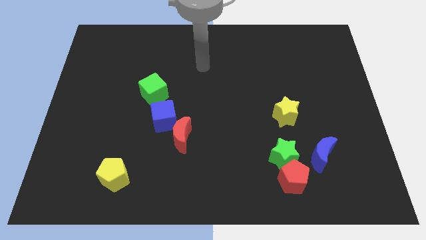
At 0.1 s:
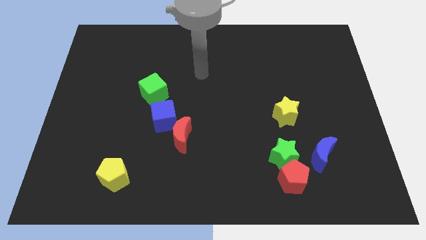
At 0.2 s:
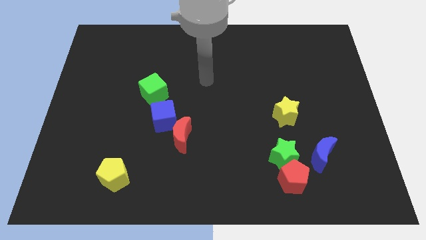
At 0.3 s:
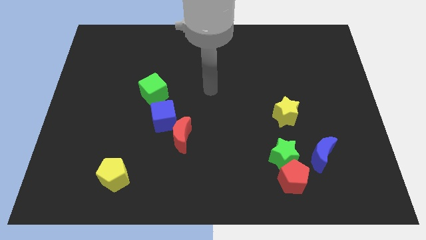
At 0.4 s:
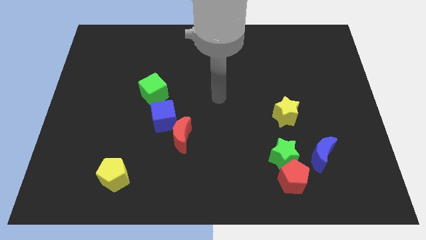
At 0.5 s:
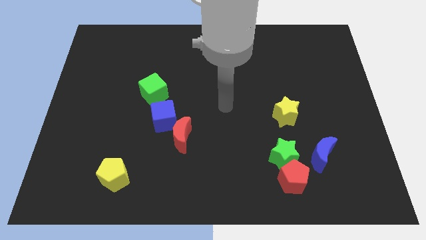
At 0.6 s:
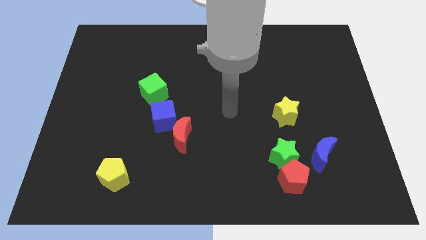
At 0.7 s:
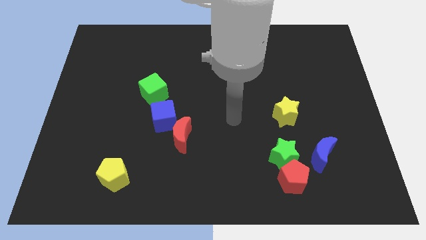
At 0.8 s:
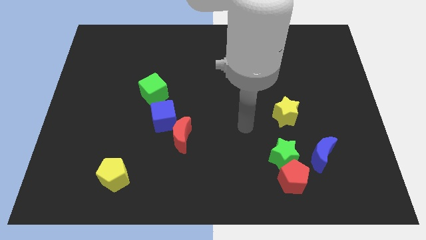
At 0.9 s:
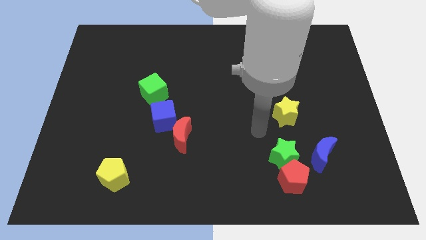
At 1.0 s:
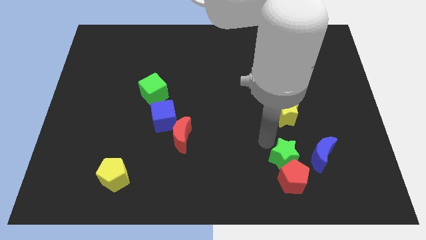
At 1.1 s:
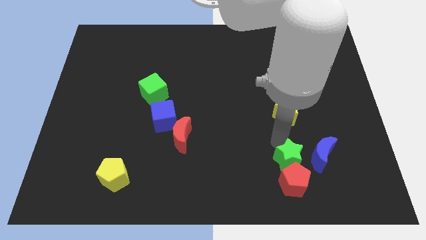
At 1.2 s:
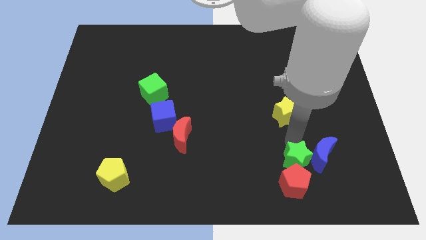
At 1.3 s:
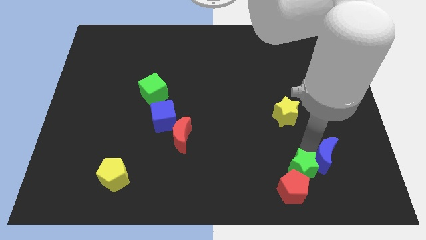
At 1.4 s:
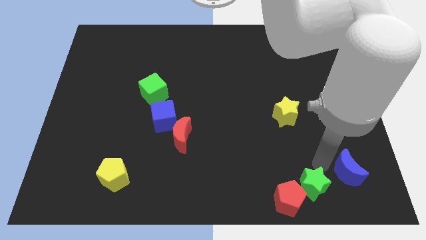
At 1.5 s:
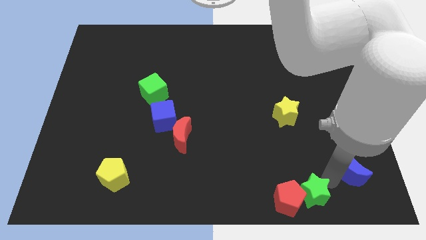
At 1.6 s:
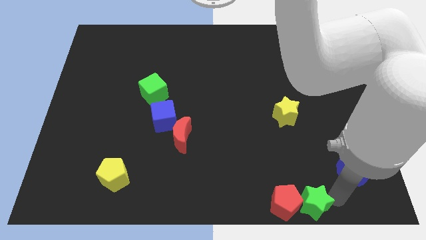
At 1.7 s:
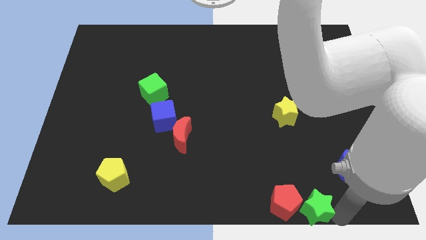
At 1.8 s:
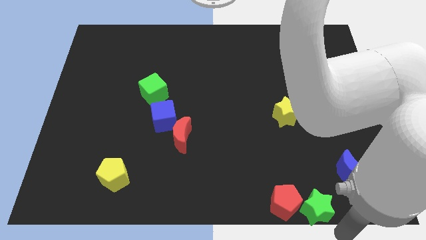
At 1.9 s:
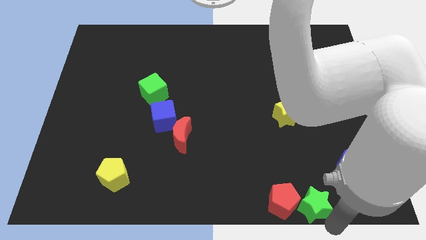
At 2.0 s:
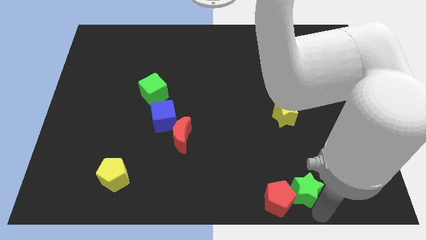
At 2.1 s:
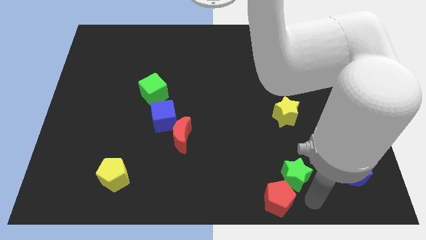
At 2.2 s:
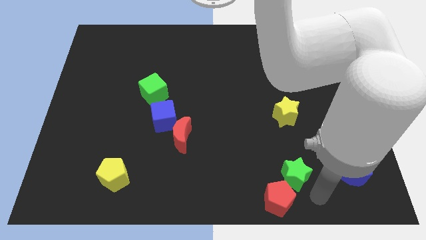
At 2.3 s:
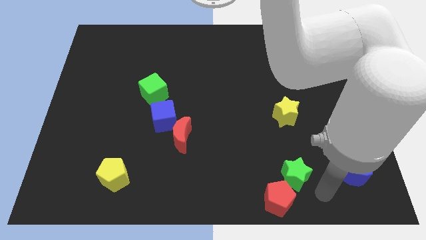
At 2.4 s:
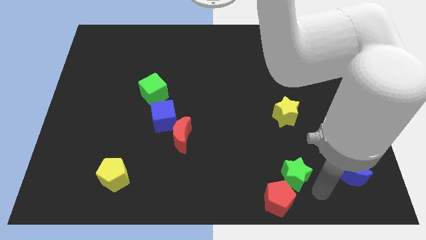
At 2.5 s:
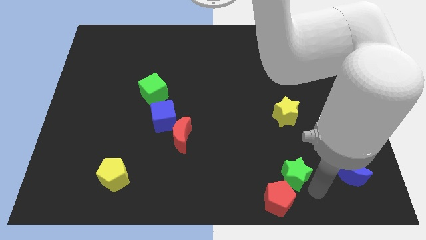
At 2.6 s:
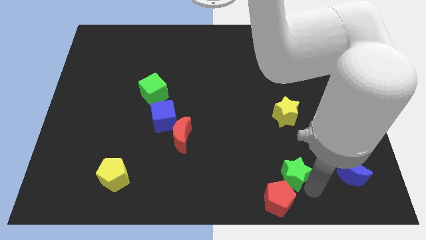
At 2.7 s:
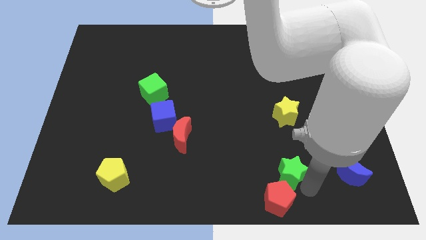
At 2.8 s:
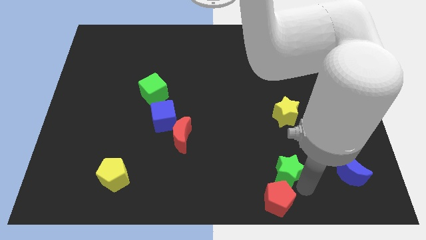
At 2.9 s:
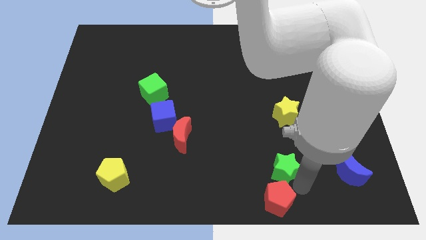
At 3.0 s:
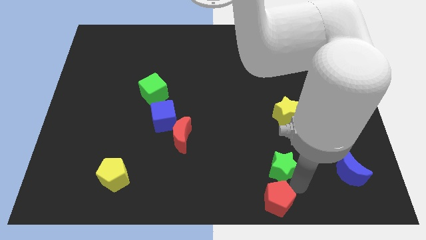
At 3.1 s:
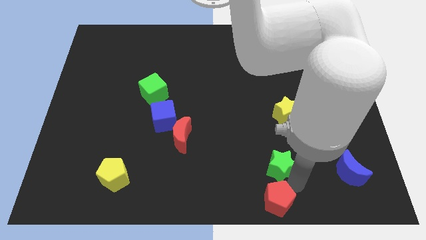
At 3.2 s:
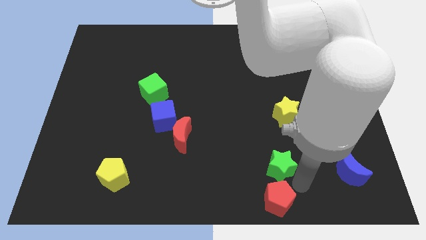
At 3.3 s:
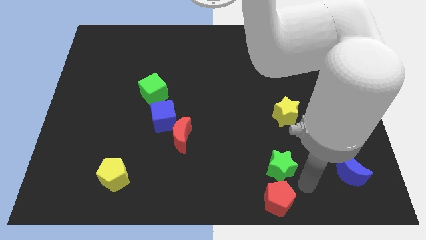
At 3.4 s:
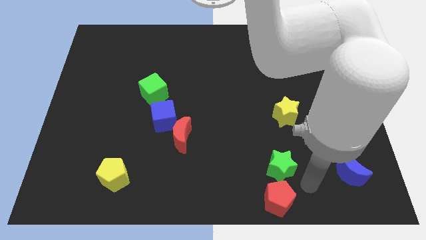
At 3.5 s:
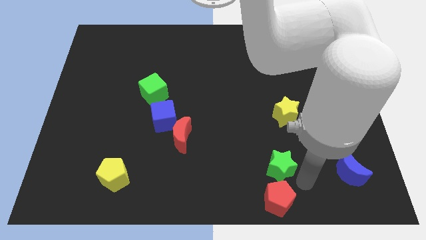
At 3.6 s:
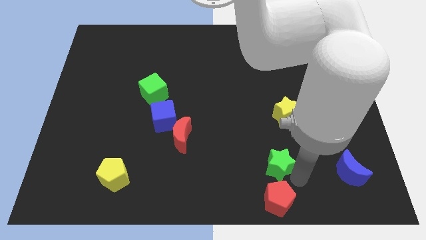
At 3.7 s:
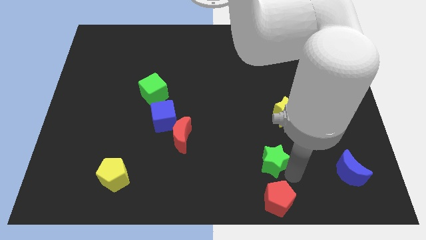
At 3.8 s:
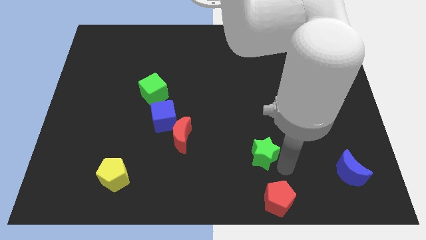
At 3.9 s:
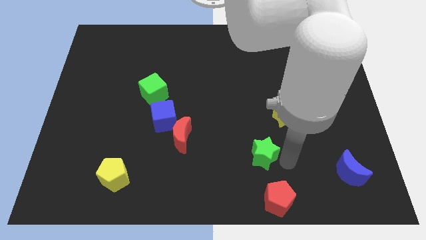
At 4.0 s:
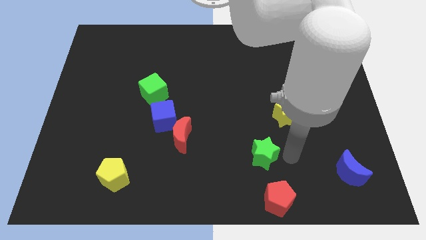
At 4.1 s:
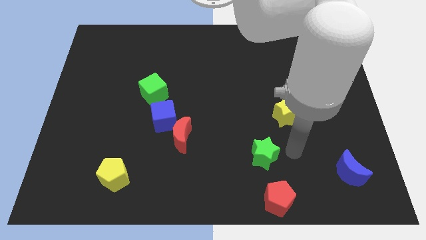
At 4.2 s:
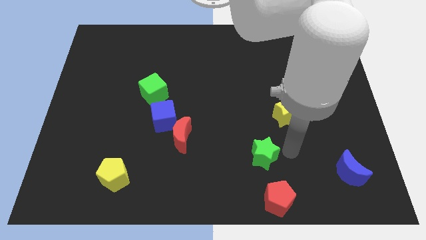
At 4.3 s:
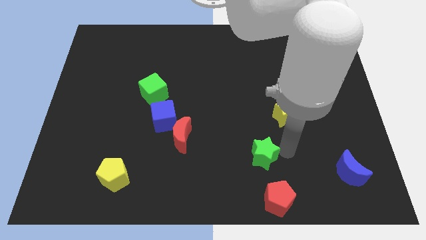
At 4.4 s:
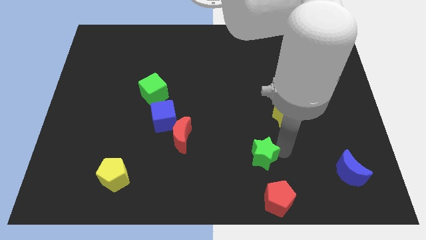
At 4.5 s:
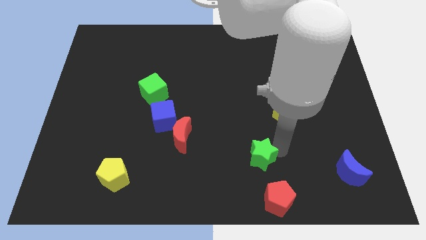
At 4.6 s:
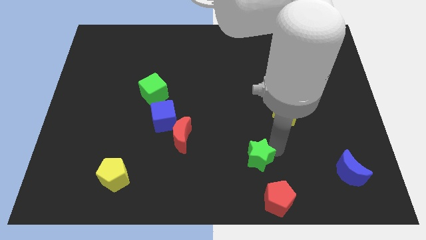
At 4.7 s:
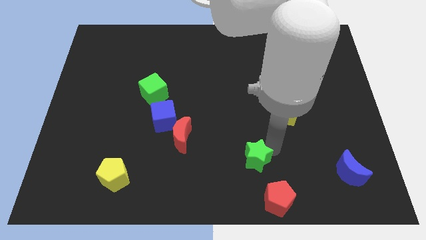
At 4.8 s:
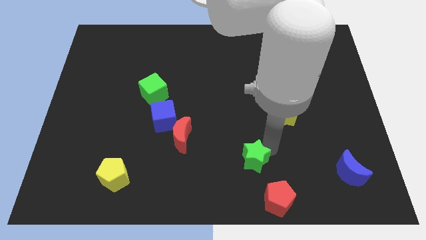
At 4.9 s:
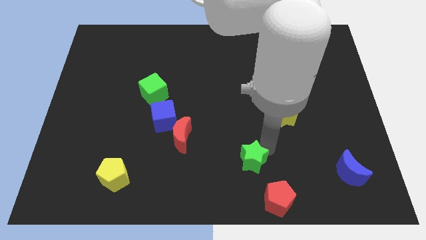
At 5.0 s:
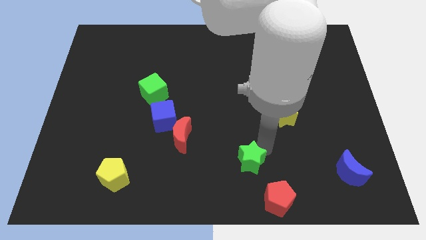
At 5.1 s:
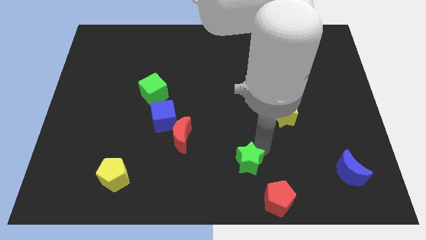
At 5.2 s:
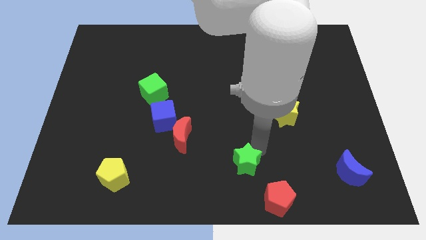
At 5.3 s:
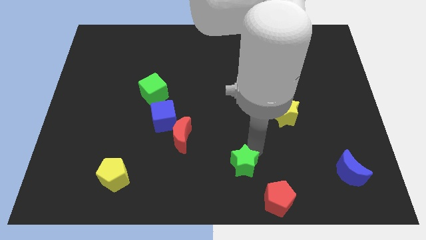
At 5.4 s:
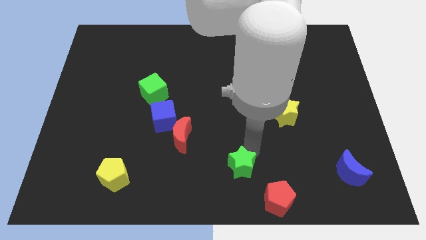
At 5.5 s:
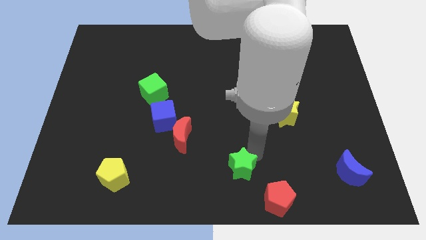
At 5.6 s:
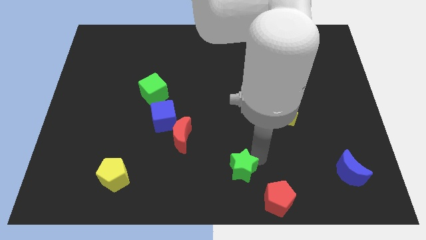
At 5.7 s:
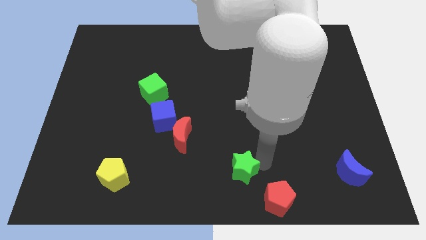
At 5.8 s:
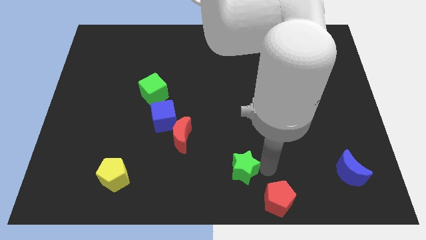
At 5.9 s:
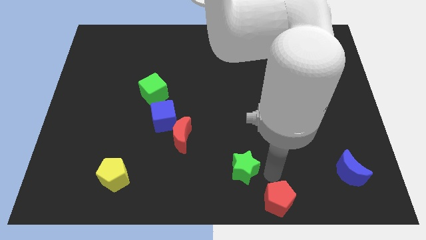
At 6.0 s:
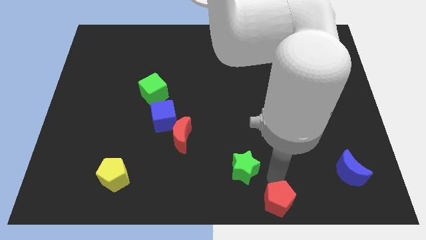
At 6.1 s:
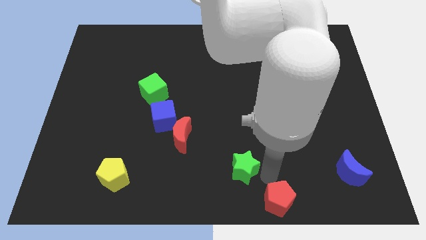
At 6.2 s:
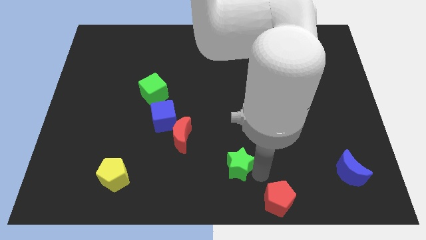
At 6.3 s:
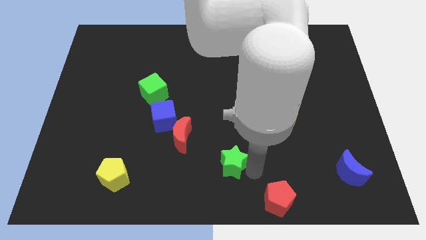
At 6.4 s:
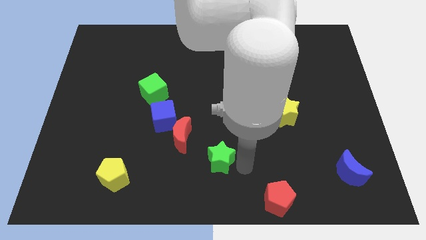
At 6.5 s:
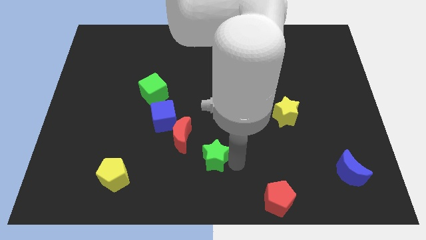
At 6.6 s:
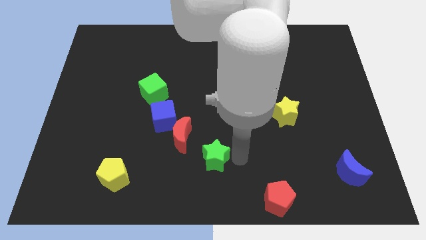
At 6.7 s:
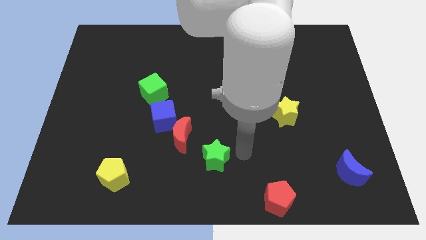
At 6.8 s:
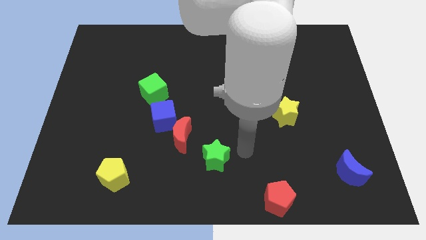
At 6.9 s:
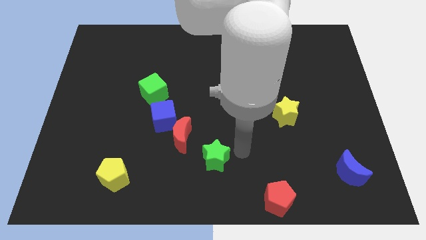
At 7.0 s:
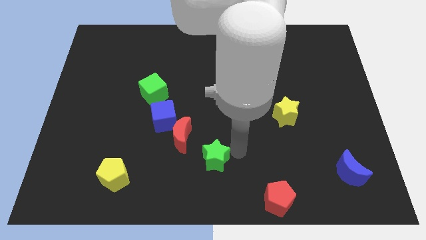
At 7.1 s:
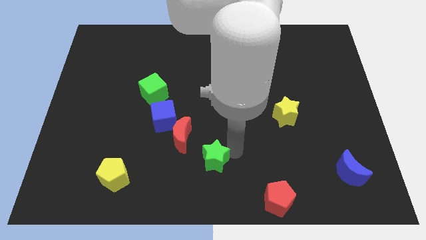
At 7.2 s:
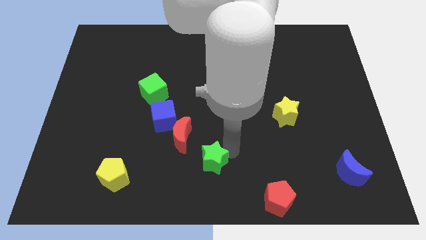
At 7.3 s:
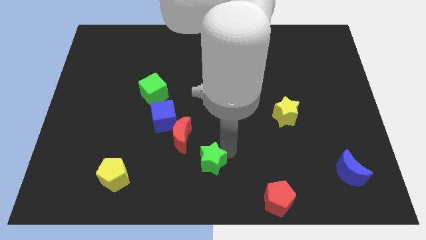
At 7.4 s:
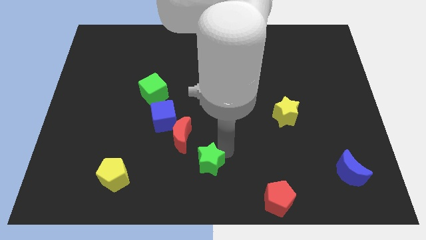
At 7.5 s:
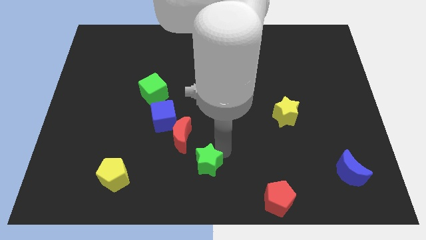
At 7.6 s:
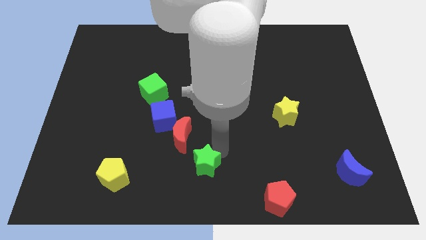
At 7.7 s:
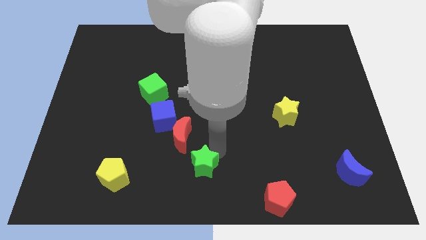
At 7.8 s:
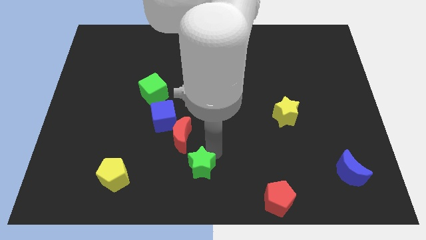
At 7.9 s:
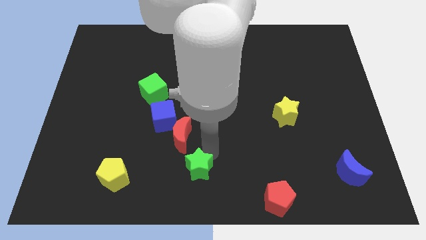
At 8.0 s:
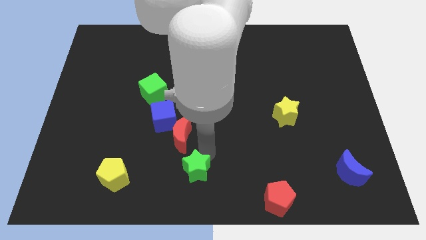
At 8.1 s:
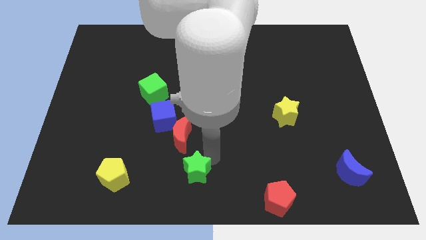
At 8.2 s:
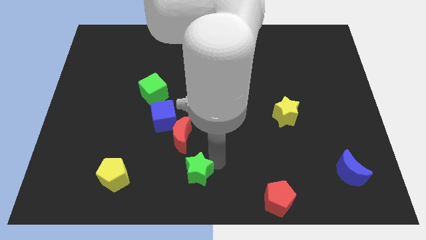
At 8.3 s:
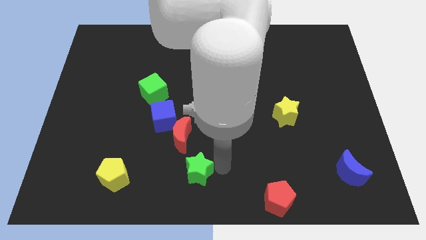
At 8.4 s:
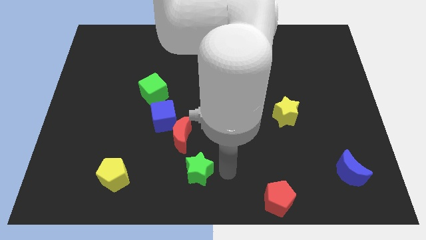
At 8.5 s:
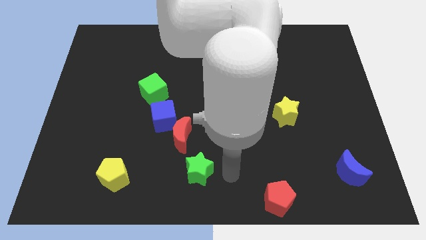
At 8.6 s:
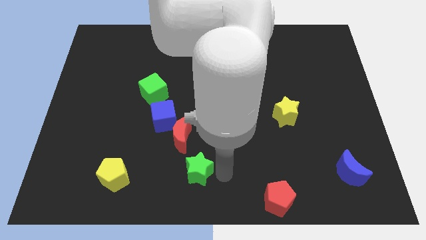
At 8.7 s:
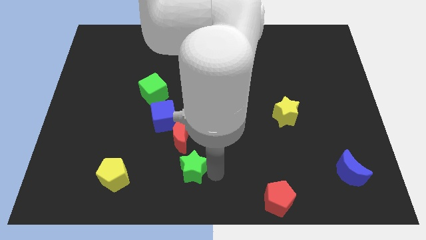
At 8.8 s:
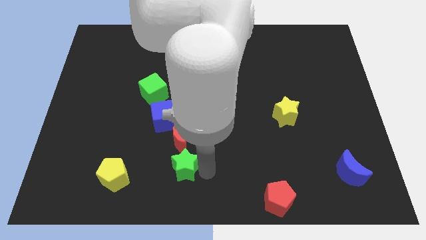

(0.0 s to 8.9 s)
move the green star left
